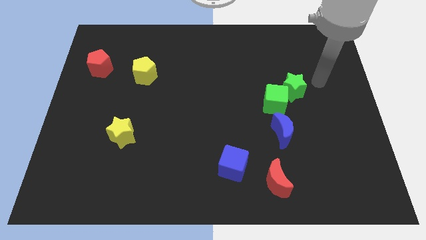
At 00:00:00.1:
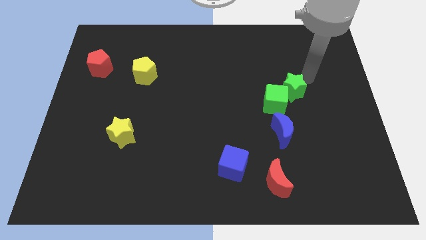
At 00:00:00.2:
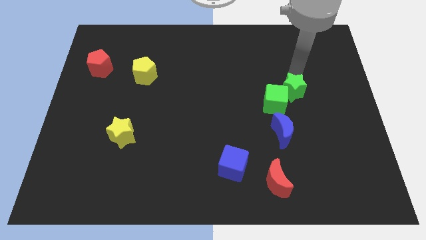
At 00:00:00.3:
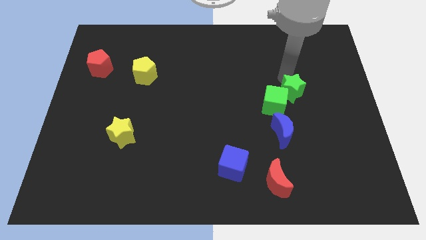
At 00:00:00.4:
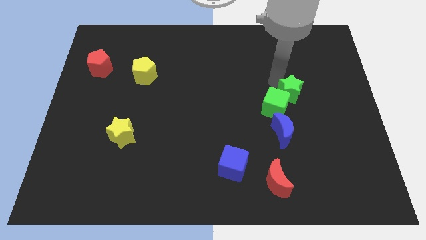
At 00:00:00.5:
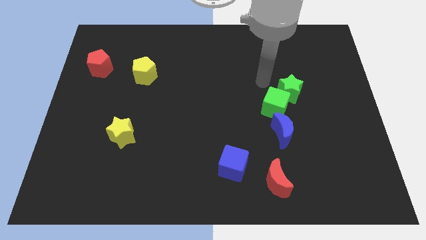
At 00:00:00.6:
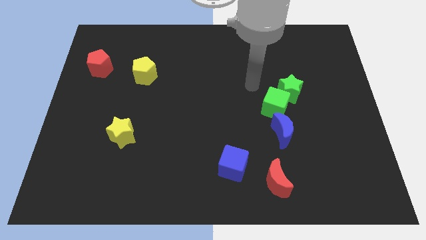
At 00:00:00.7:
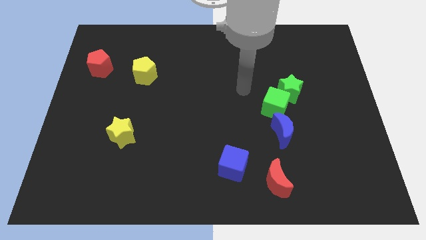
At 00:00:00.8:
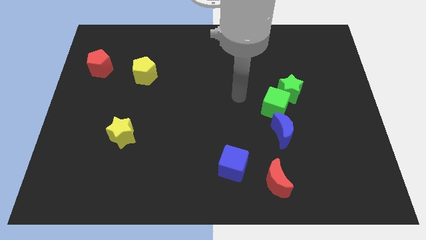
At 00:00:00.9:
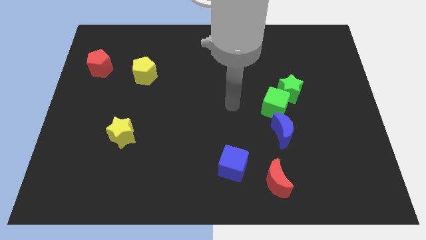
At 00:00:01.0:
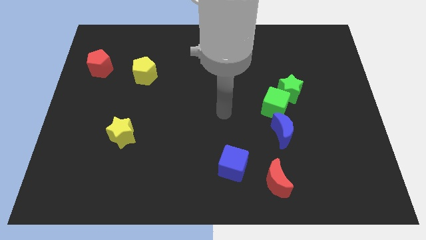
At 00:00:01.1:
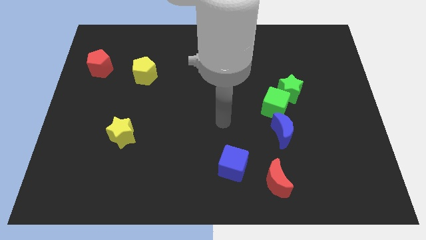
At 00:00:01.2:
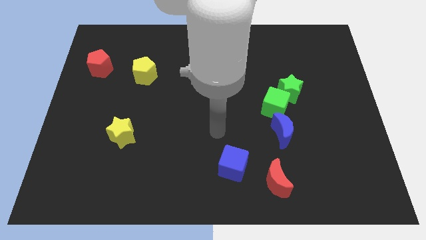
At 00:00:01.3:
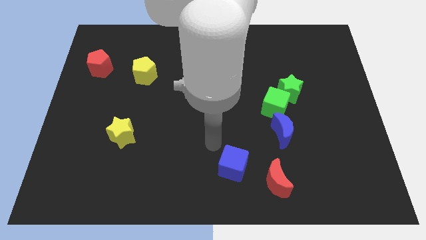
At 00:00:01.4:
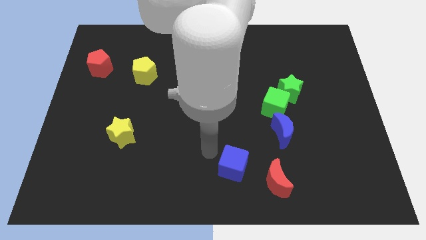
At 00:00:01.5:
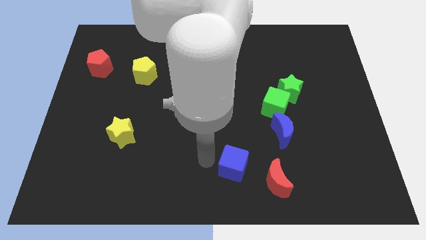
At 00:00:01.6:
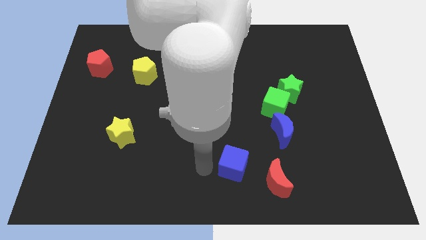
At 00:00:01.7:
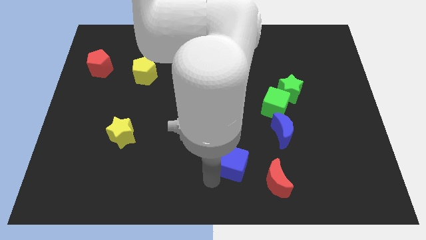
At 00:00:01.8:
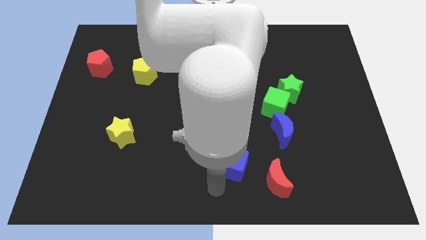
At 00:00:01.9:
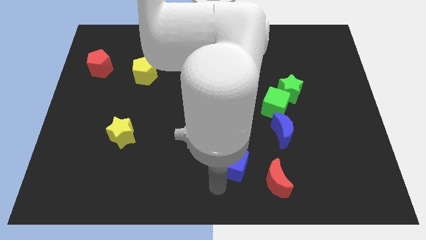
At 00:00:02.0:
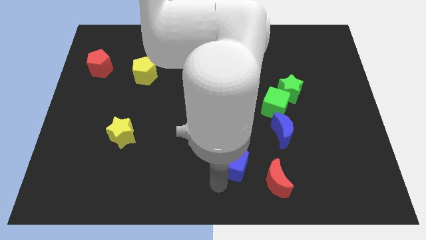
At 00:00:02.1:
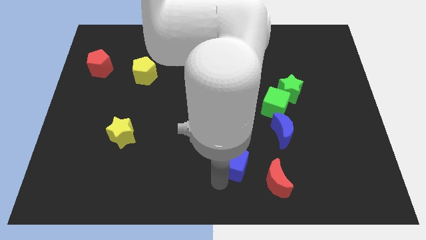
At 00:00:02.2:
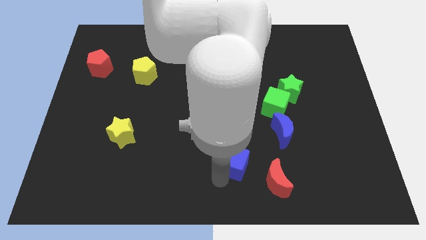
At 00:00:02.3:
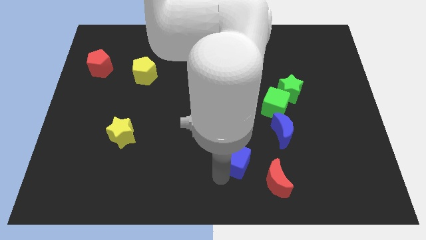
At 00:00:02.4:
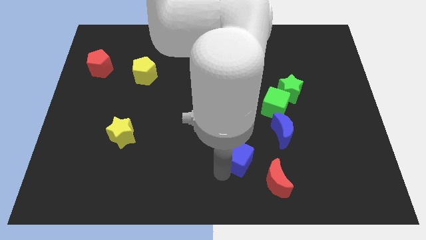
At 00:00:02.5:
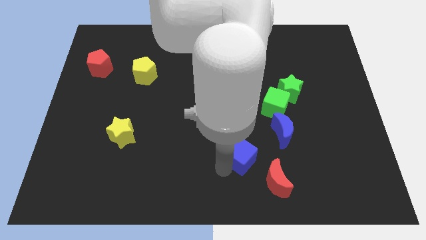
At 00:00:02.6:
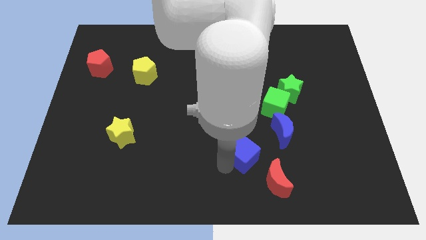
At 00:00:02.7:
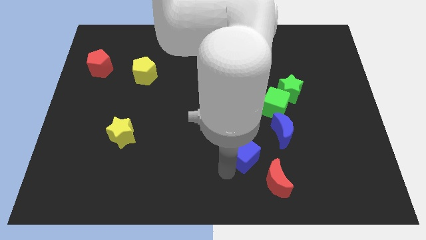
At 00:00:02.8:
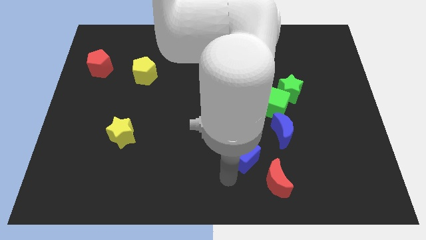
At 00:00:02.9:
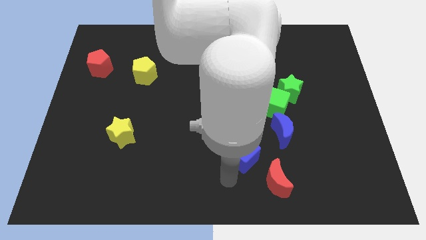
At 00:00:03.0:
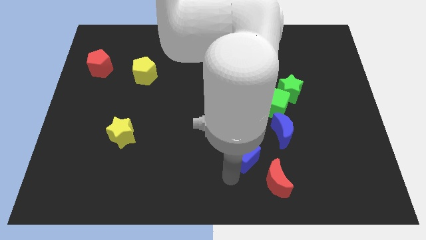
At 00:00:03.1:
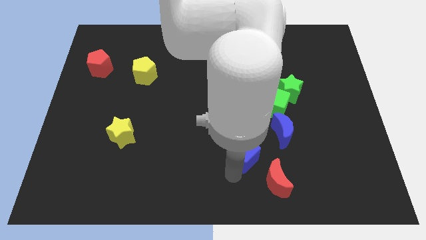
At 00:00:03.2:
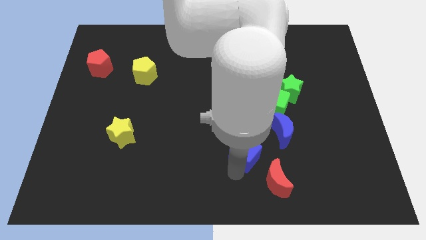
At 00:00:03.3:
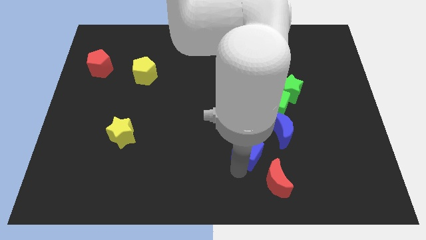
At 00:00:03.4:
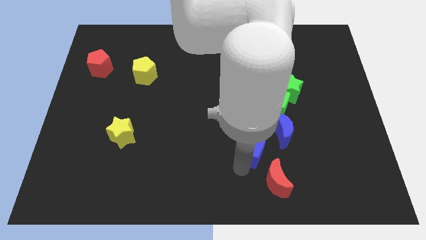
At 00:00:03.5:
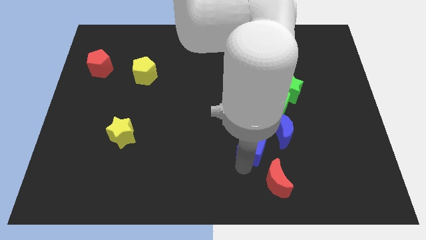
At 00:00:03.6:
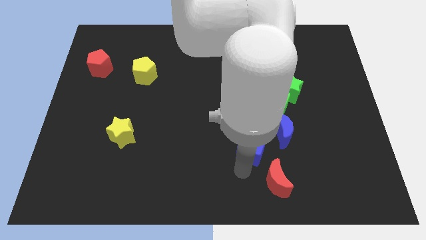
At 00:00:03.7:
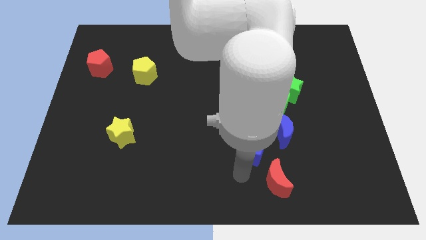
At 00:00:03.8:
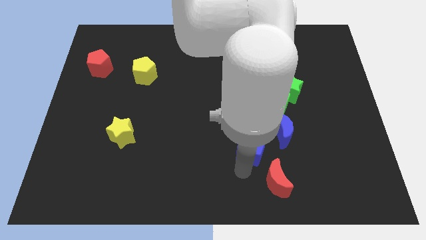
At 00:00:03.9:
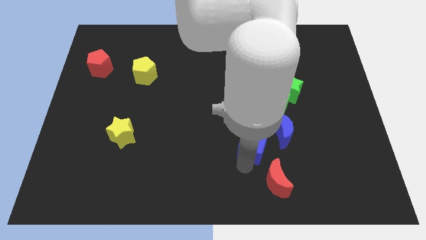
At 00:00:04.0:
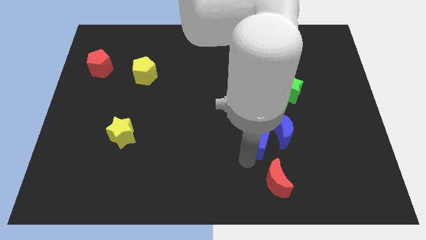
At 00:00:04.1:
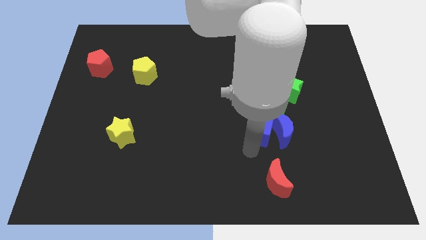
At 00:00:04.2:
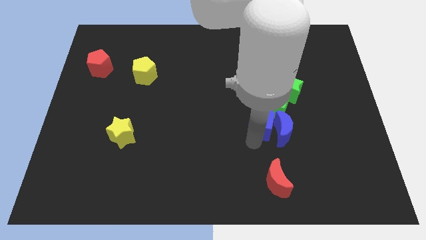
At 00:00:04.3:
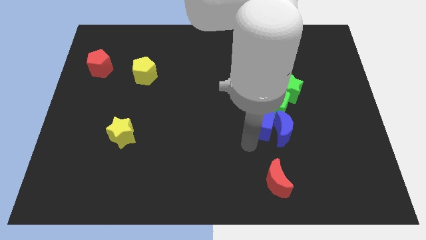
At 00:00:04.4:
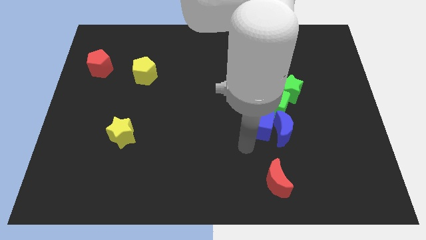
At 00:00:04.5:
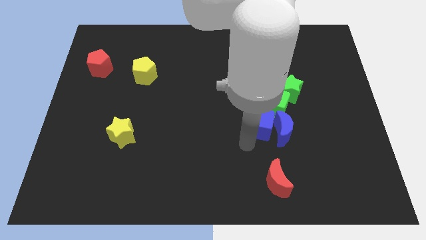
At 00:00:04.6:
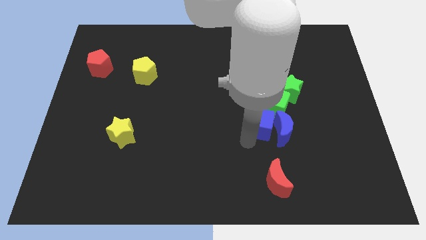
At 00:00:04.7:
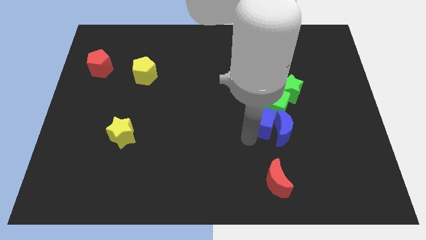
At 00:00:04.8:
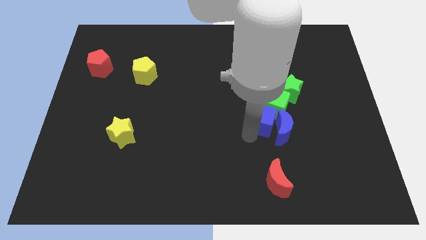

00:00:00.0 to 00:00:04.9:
slide the blue cube to the green cube

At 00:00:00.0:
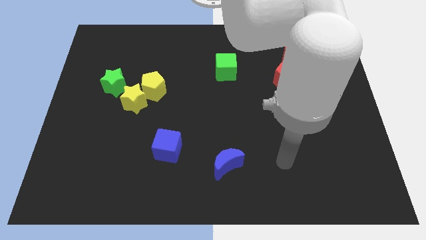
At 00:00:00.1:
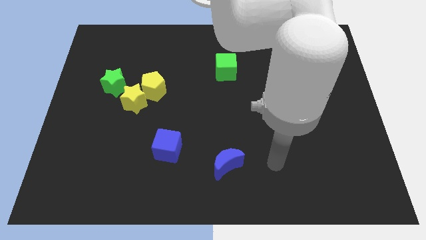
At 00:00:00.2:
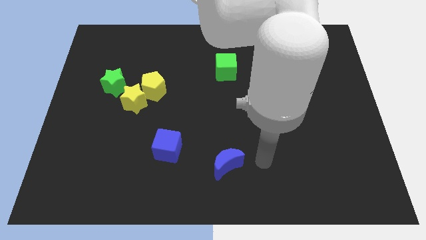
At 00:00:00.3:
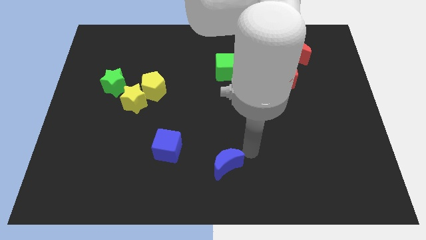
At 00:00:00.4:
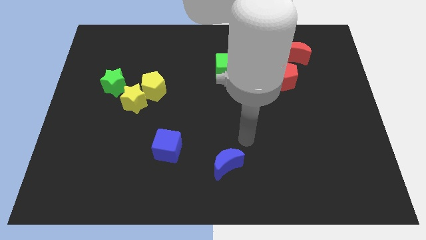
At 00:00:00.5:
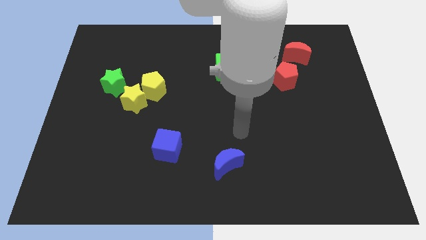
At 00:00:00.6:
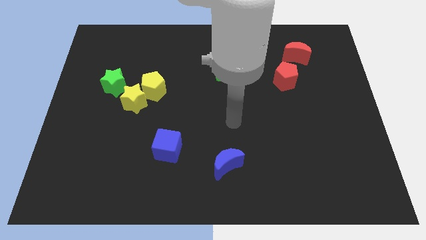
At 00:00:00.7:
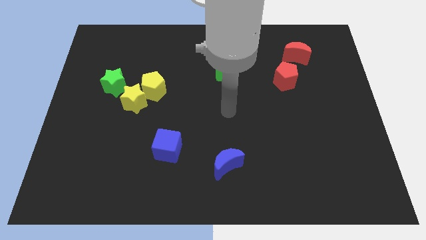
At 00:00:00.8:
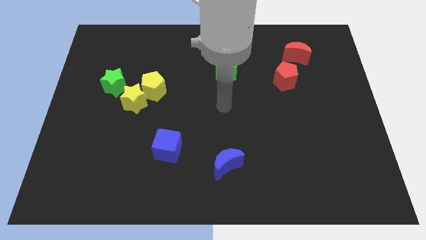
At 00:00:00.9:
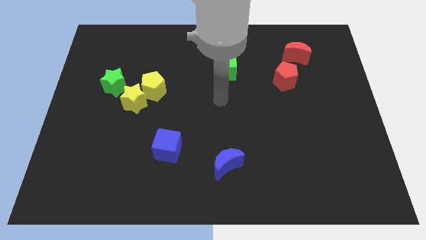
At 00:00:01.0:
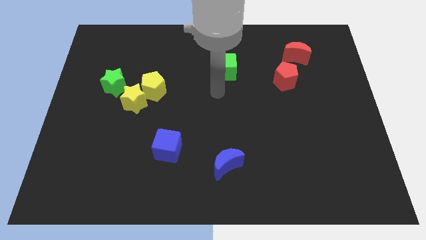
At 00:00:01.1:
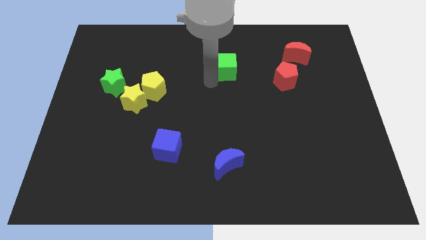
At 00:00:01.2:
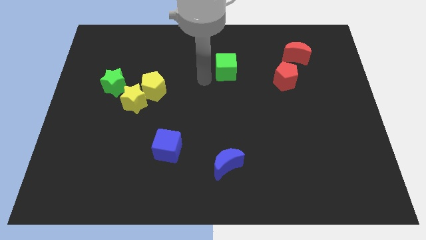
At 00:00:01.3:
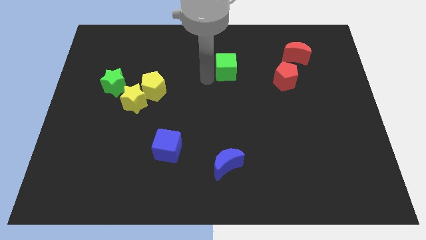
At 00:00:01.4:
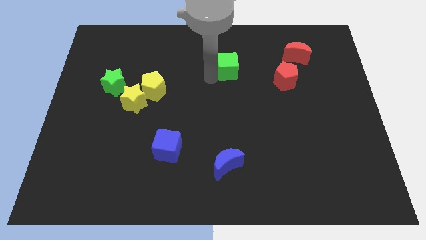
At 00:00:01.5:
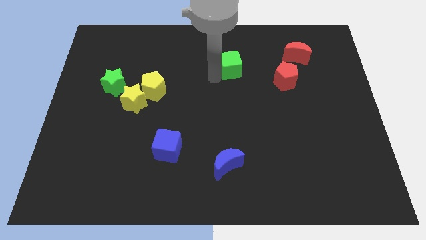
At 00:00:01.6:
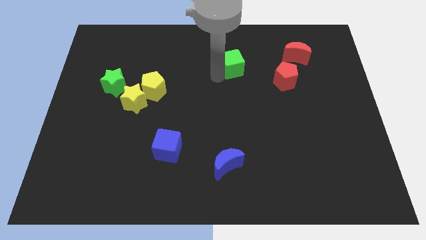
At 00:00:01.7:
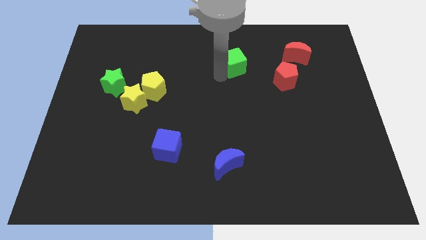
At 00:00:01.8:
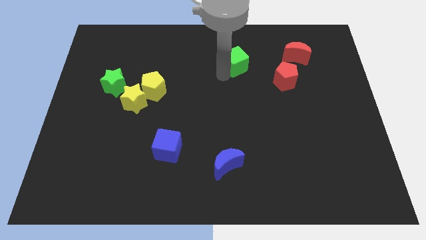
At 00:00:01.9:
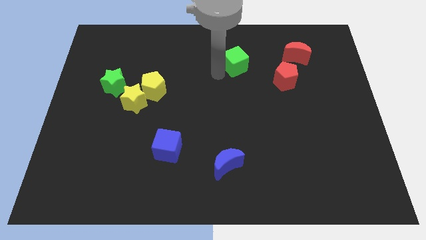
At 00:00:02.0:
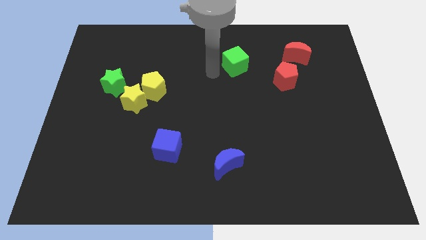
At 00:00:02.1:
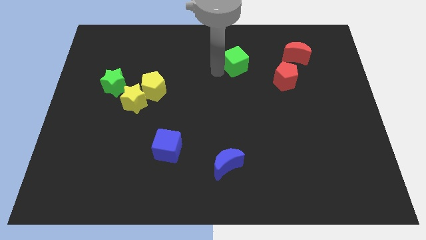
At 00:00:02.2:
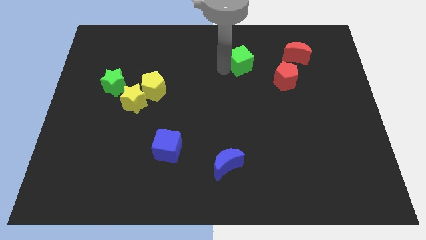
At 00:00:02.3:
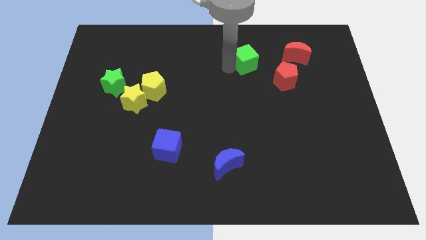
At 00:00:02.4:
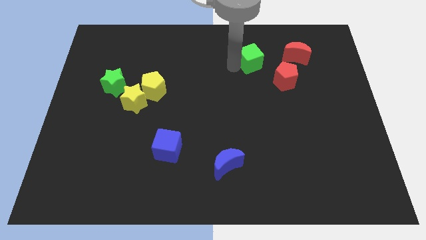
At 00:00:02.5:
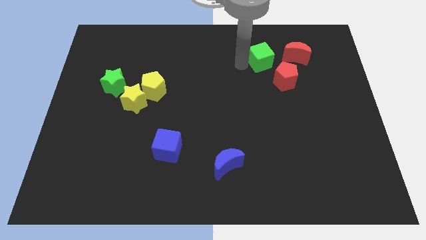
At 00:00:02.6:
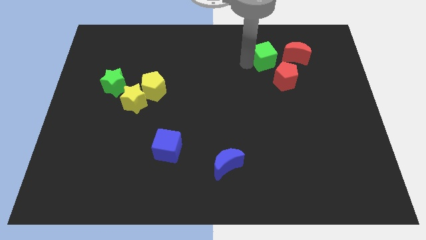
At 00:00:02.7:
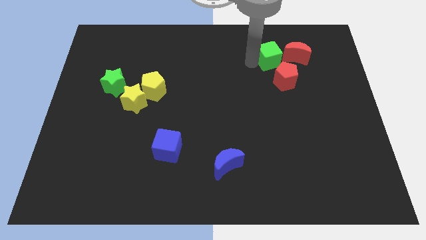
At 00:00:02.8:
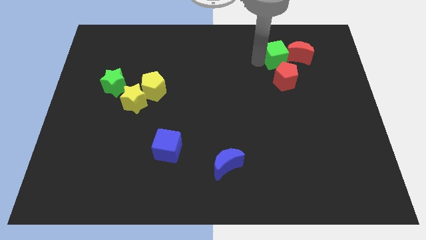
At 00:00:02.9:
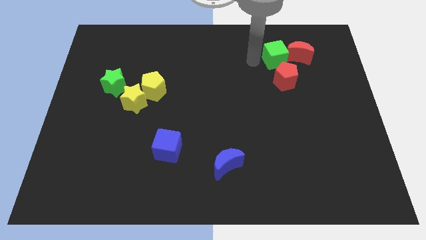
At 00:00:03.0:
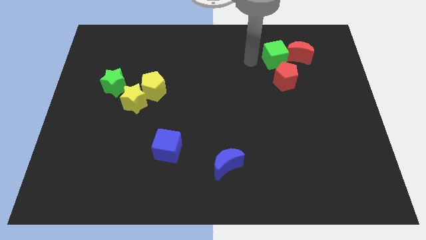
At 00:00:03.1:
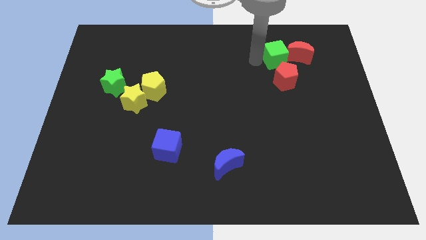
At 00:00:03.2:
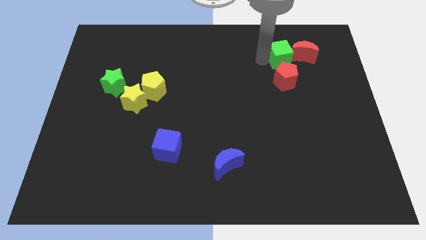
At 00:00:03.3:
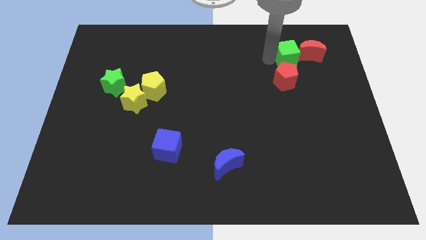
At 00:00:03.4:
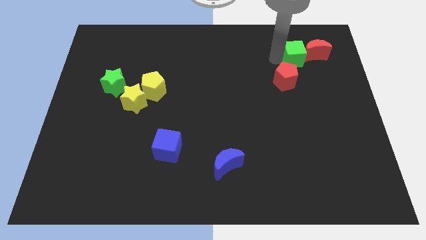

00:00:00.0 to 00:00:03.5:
slide the green cube towards the red moon
